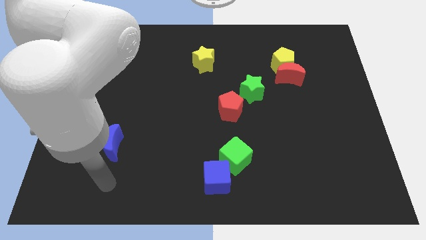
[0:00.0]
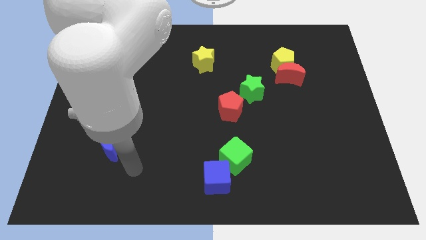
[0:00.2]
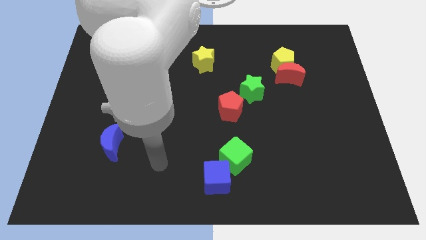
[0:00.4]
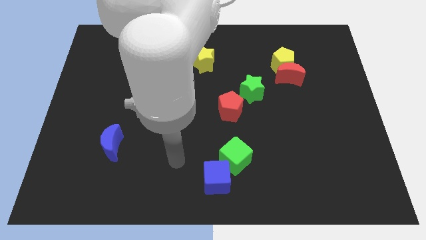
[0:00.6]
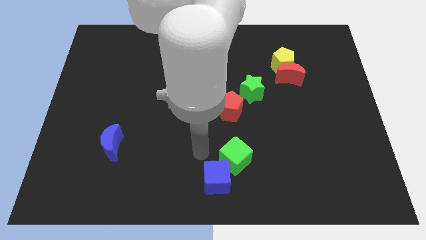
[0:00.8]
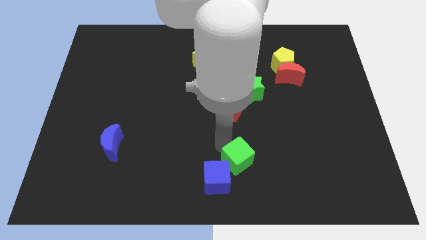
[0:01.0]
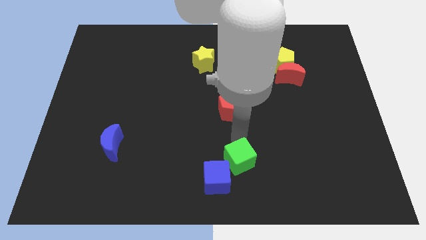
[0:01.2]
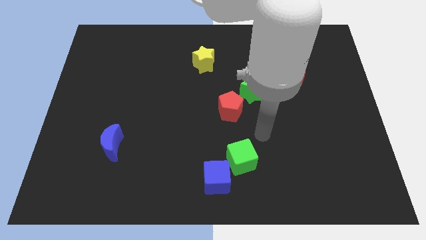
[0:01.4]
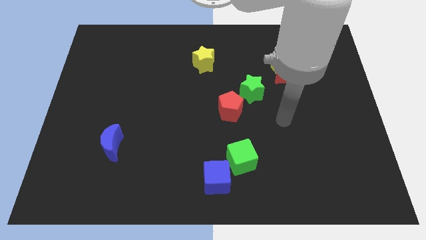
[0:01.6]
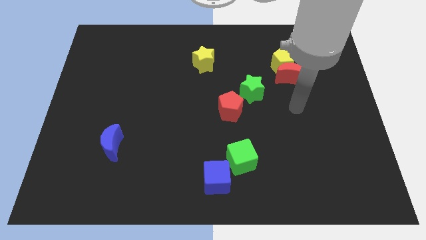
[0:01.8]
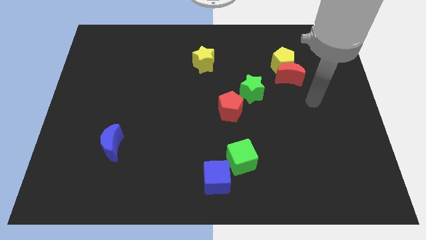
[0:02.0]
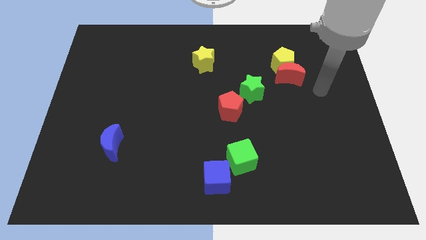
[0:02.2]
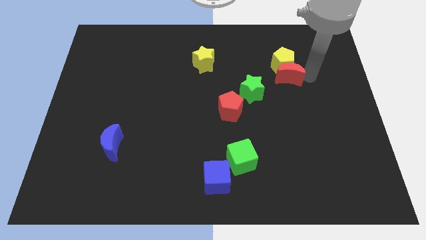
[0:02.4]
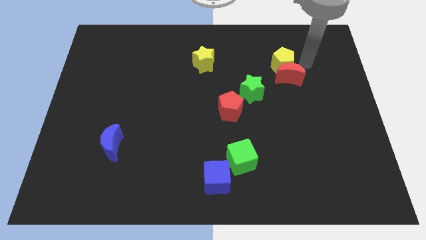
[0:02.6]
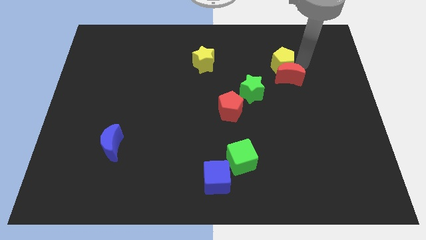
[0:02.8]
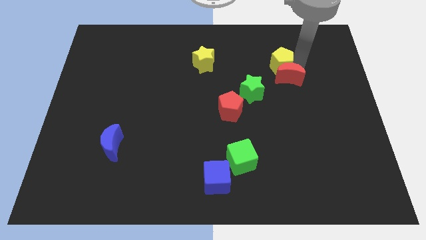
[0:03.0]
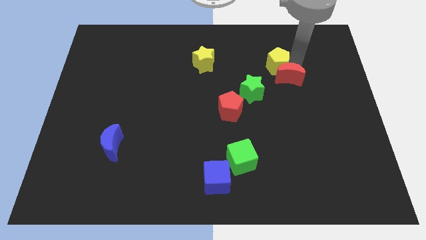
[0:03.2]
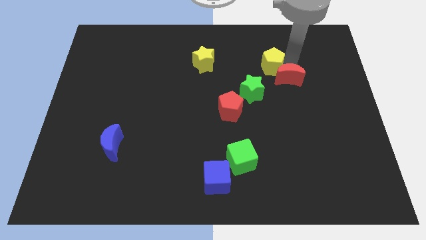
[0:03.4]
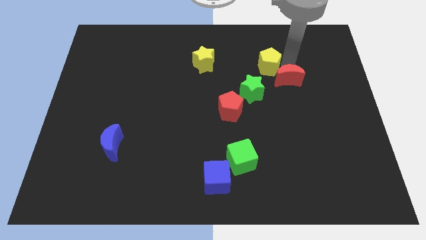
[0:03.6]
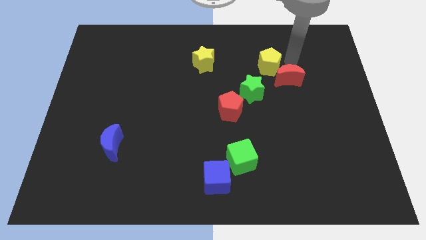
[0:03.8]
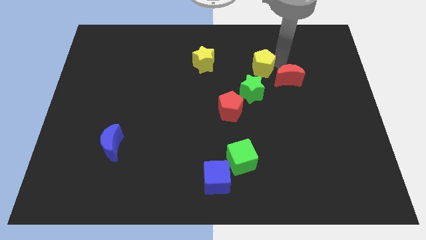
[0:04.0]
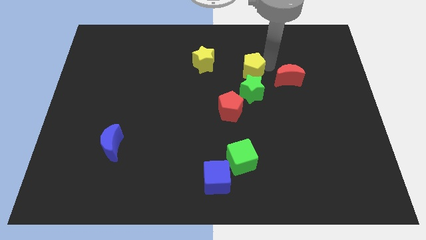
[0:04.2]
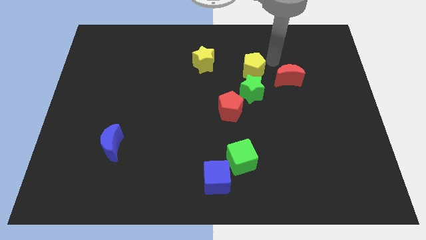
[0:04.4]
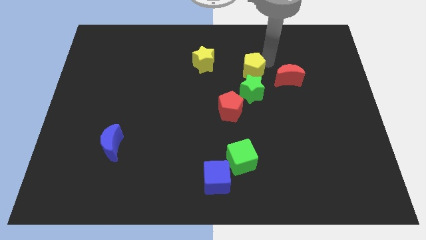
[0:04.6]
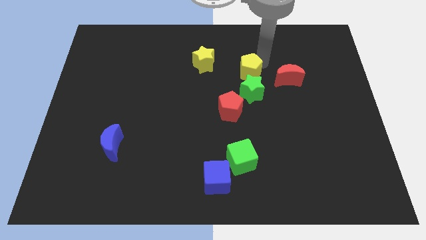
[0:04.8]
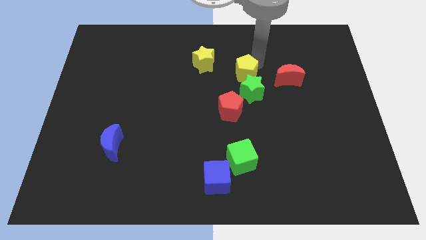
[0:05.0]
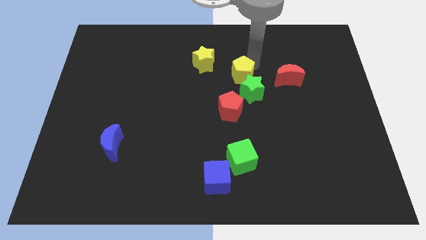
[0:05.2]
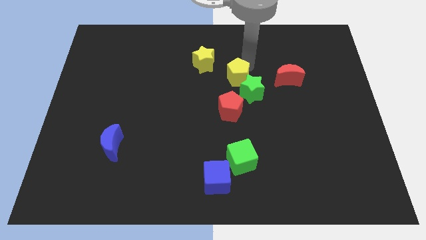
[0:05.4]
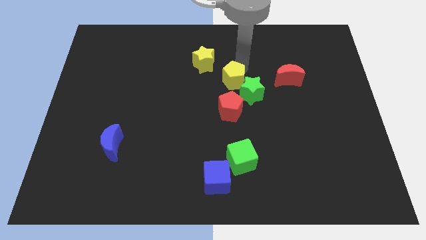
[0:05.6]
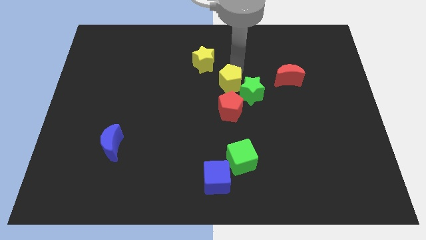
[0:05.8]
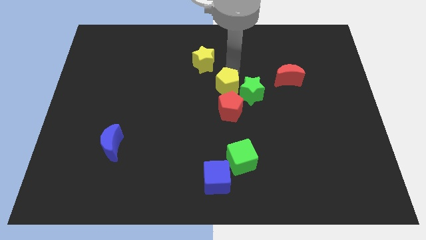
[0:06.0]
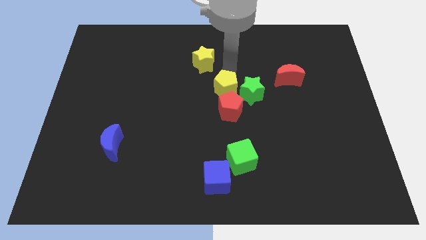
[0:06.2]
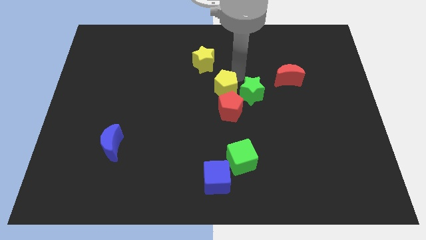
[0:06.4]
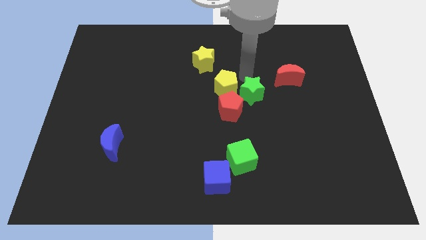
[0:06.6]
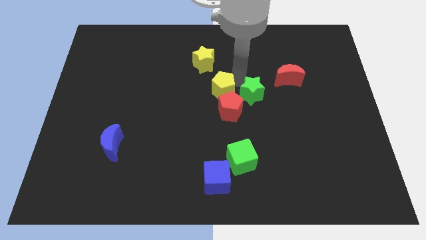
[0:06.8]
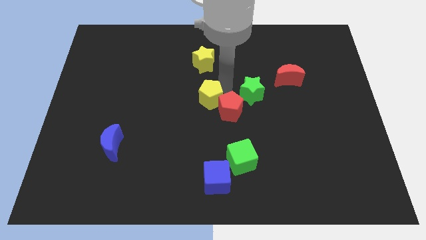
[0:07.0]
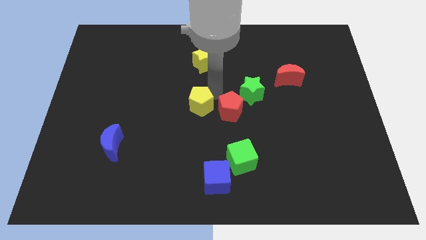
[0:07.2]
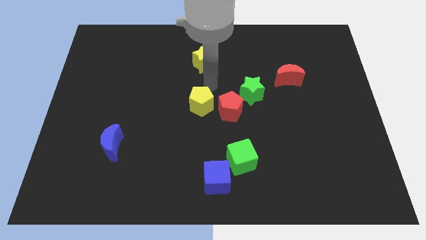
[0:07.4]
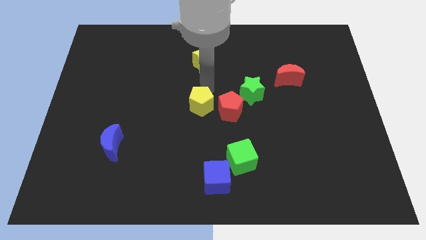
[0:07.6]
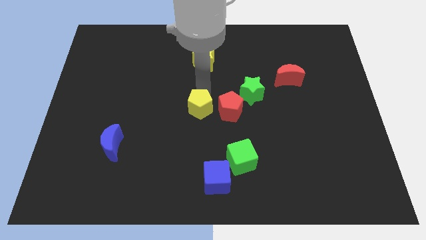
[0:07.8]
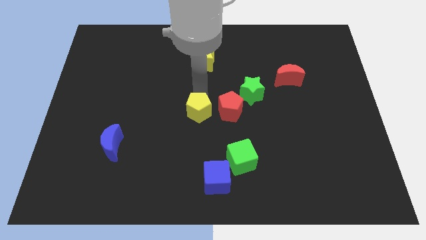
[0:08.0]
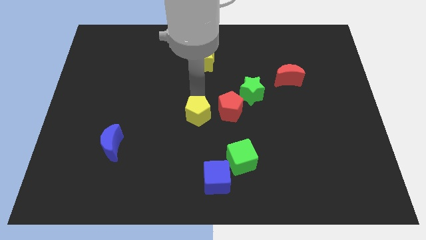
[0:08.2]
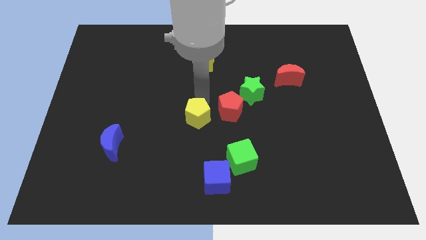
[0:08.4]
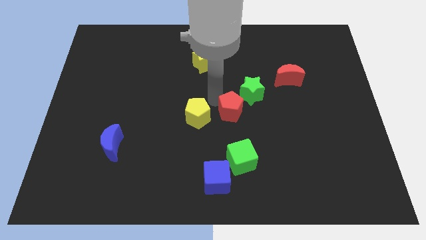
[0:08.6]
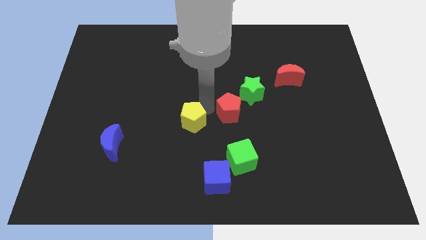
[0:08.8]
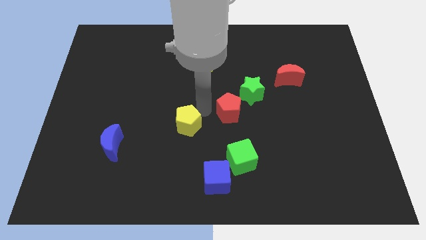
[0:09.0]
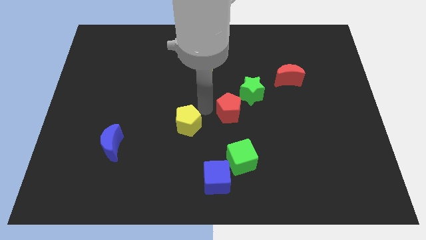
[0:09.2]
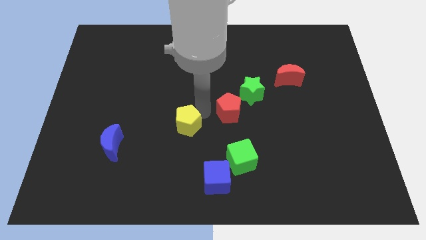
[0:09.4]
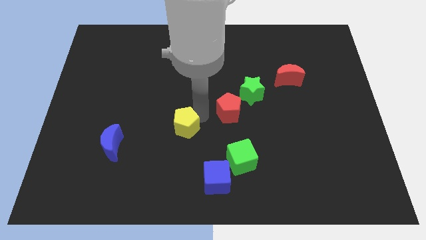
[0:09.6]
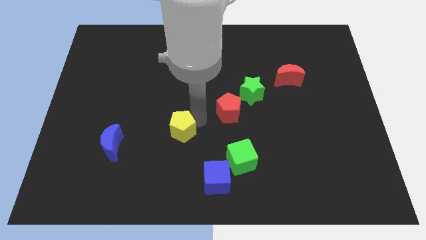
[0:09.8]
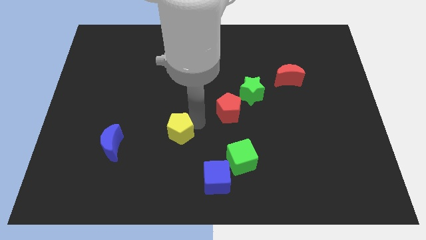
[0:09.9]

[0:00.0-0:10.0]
slide the yellow pentagon to the right side of the blue moon

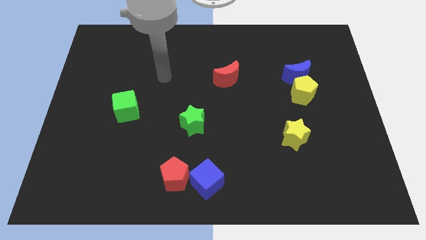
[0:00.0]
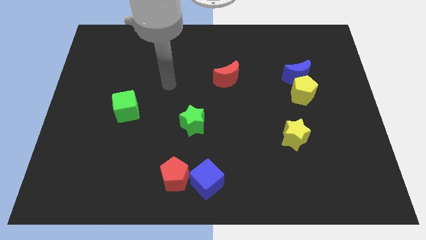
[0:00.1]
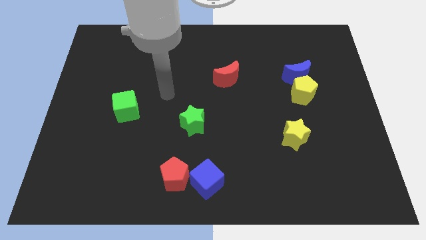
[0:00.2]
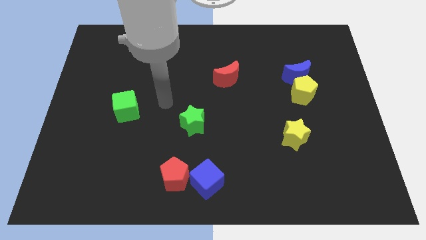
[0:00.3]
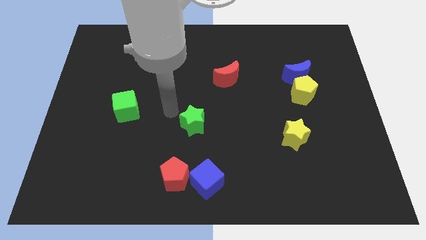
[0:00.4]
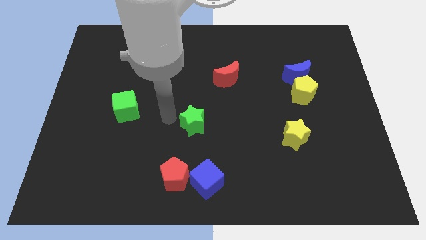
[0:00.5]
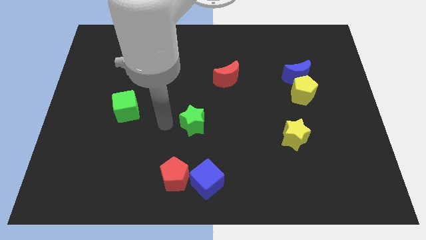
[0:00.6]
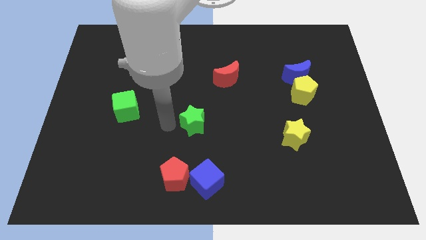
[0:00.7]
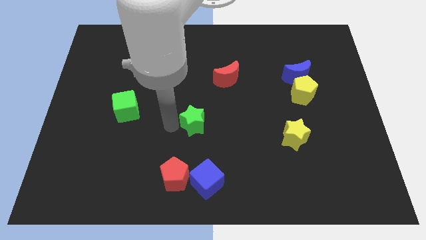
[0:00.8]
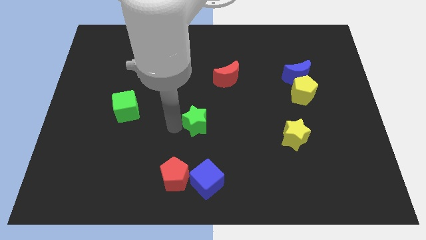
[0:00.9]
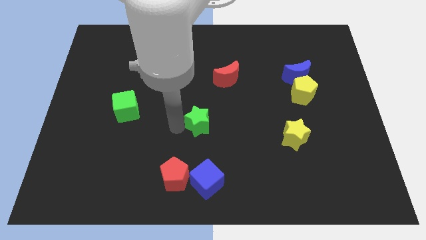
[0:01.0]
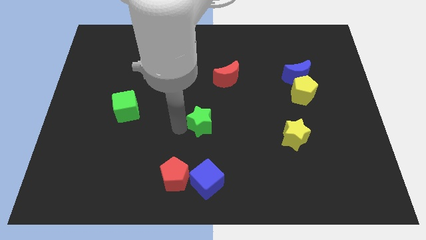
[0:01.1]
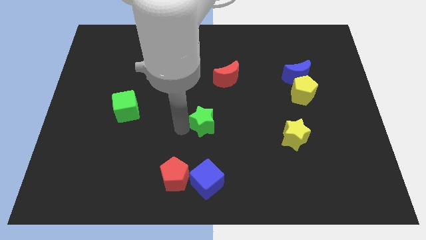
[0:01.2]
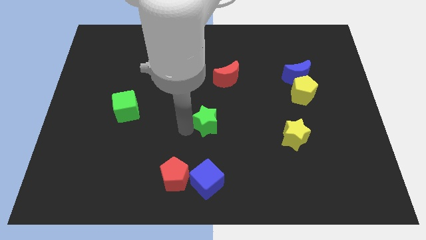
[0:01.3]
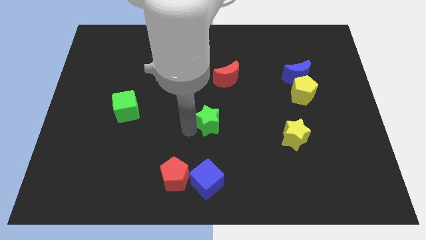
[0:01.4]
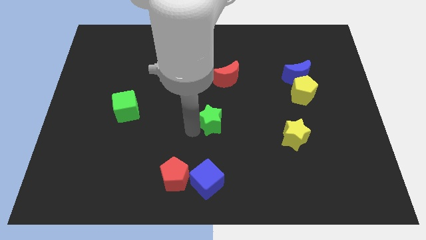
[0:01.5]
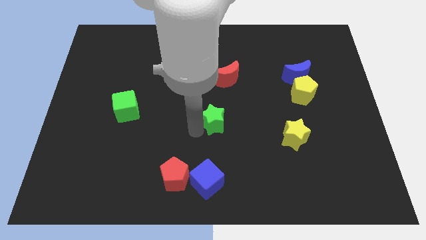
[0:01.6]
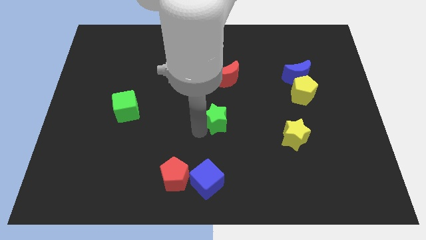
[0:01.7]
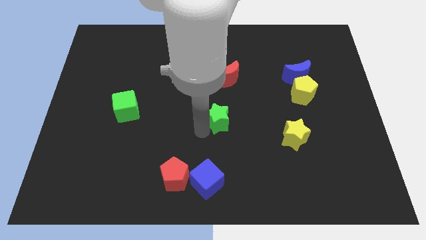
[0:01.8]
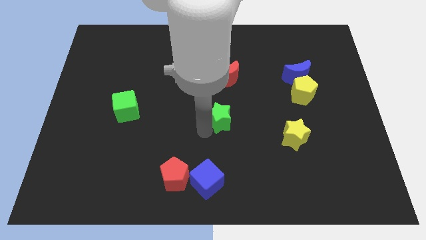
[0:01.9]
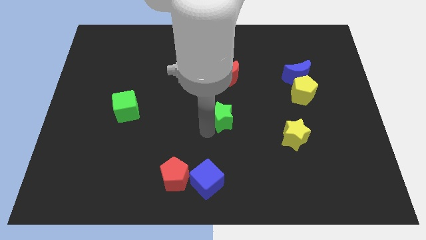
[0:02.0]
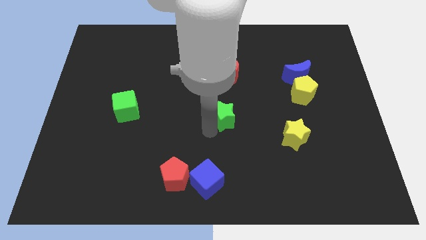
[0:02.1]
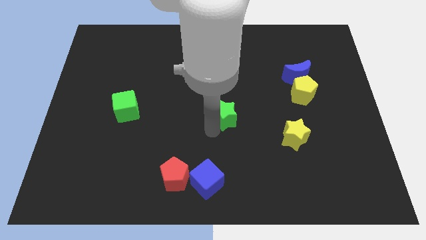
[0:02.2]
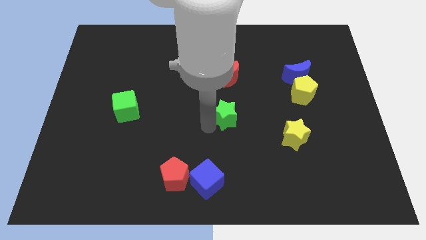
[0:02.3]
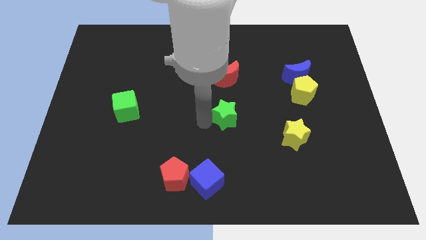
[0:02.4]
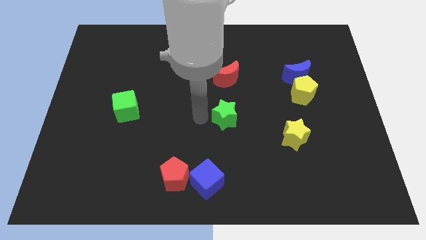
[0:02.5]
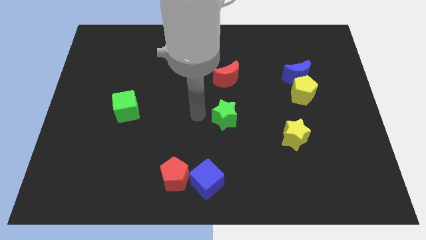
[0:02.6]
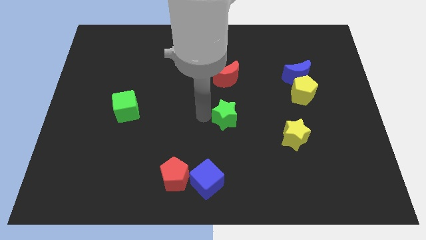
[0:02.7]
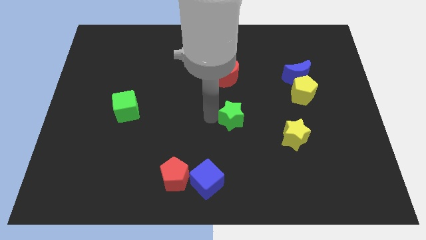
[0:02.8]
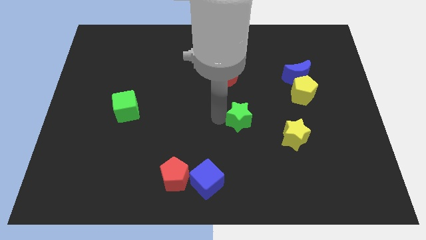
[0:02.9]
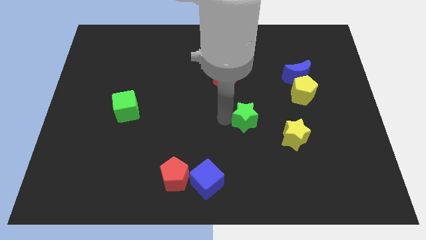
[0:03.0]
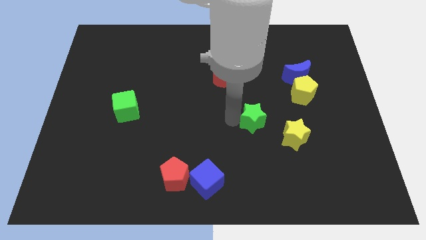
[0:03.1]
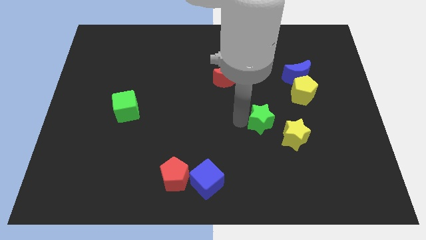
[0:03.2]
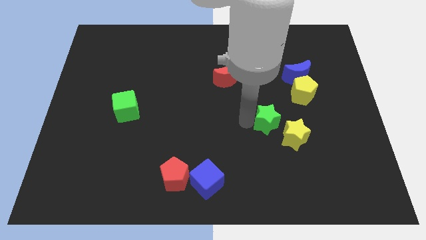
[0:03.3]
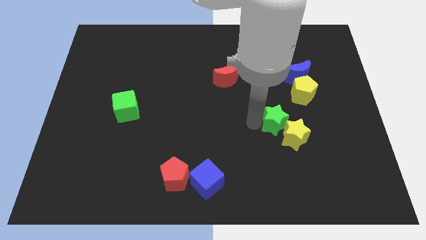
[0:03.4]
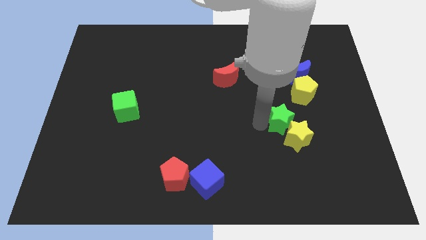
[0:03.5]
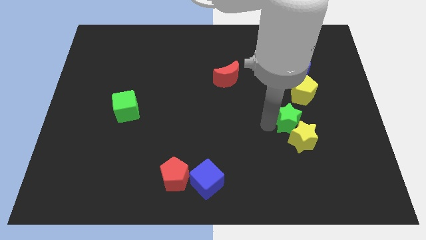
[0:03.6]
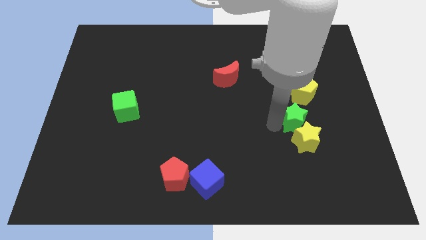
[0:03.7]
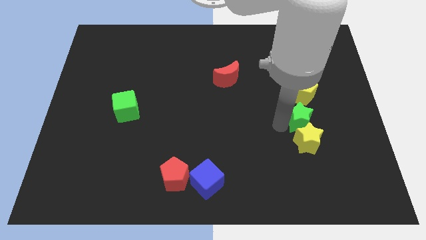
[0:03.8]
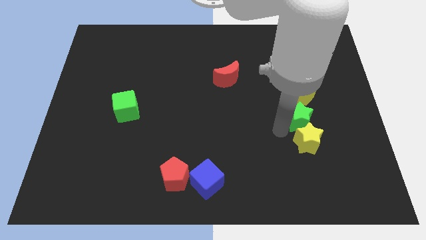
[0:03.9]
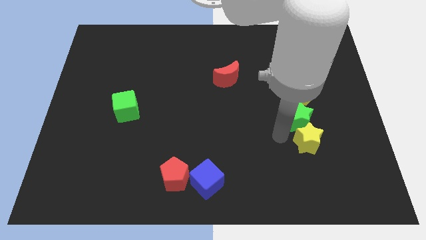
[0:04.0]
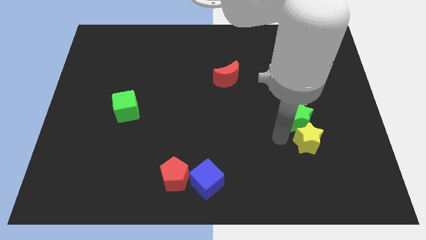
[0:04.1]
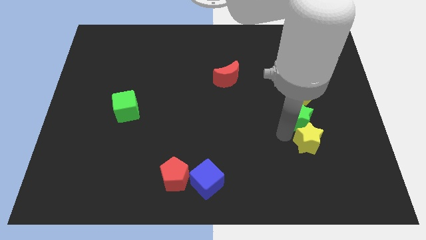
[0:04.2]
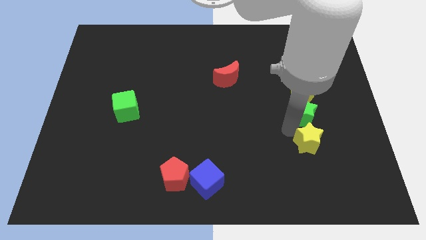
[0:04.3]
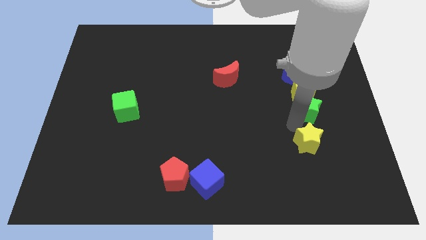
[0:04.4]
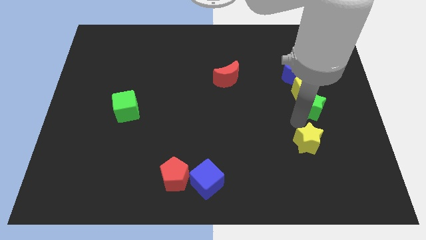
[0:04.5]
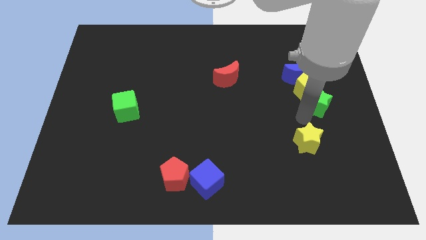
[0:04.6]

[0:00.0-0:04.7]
push the green star diagonally down and to the right of the blue moon
